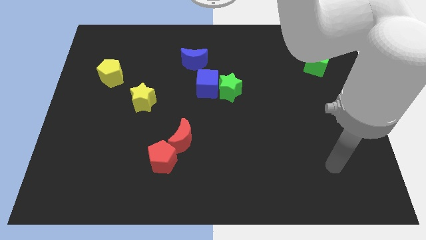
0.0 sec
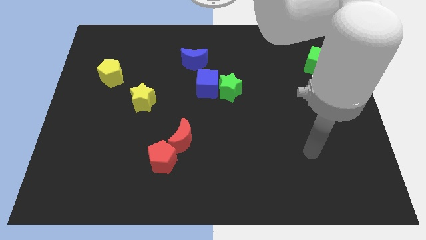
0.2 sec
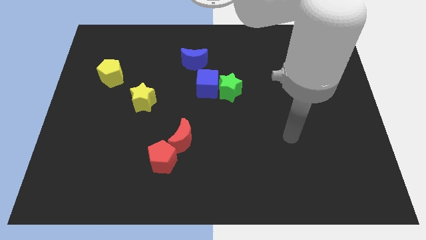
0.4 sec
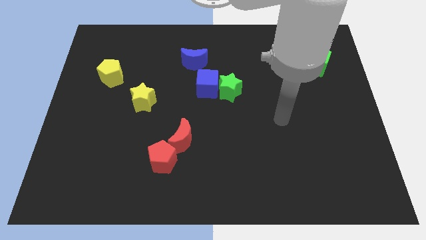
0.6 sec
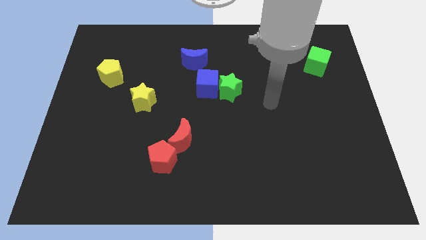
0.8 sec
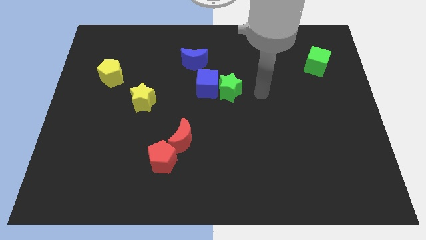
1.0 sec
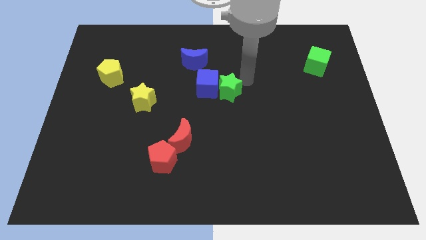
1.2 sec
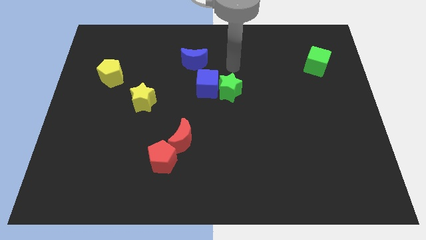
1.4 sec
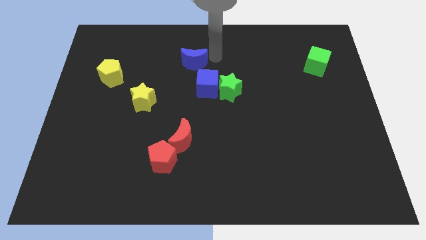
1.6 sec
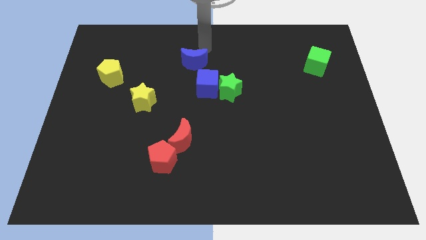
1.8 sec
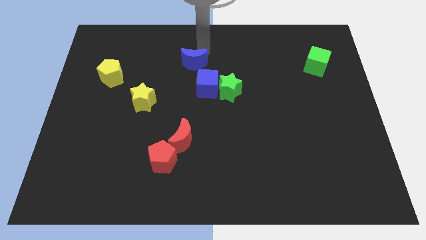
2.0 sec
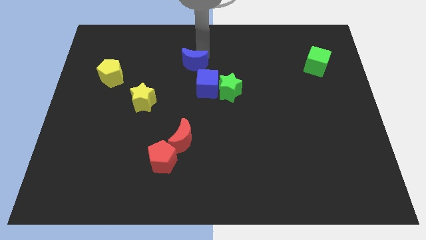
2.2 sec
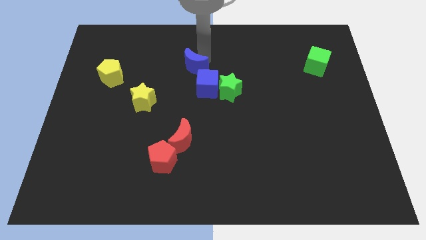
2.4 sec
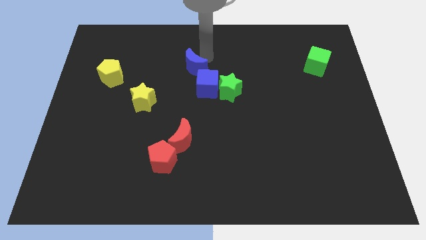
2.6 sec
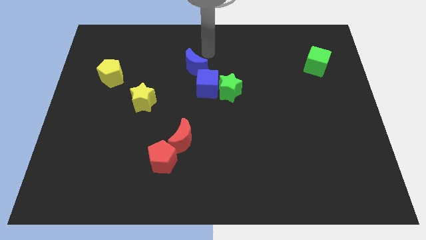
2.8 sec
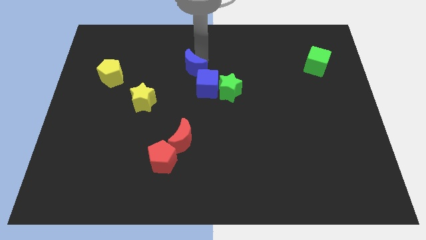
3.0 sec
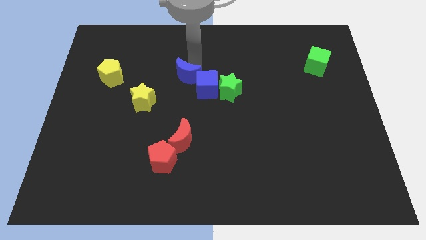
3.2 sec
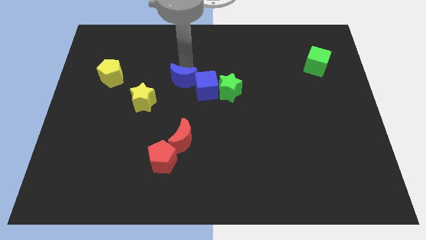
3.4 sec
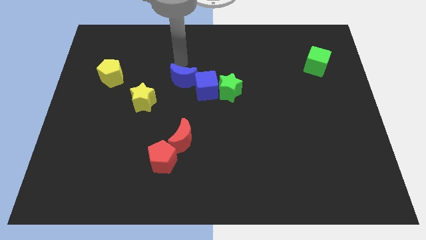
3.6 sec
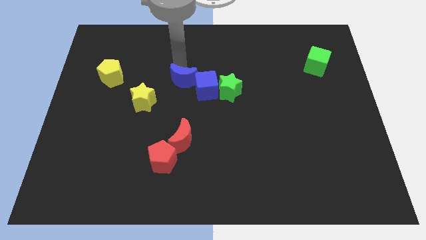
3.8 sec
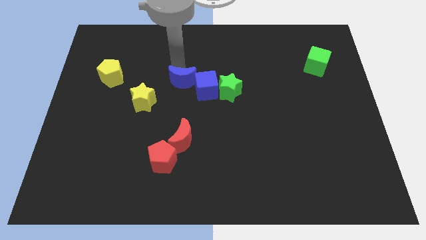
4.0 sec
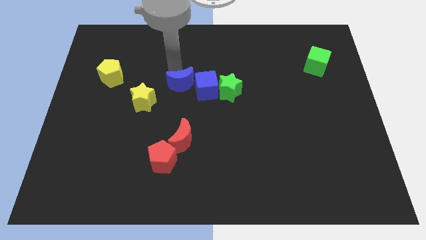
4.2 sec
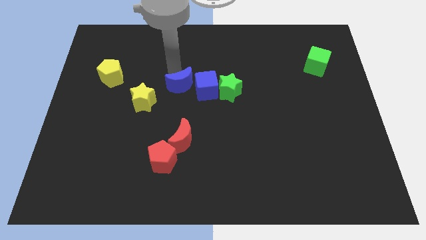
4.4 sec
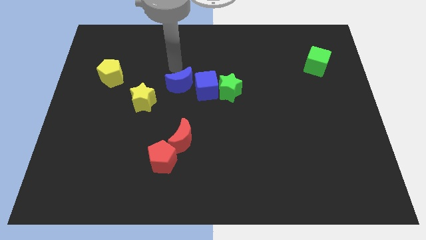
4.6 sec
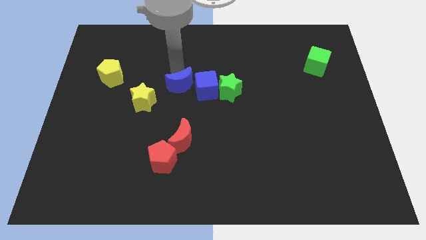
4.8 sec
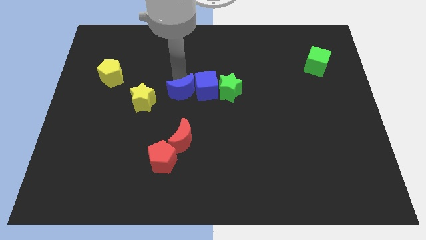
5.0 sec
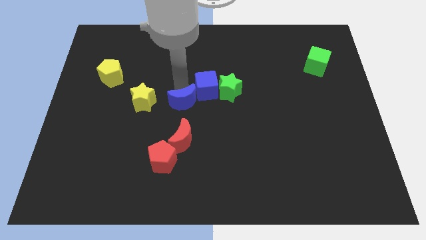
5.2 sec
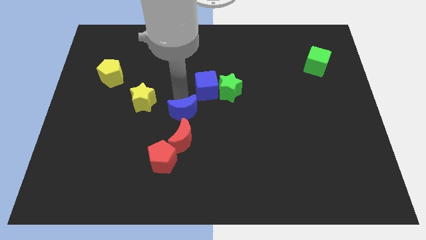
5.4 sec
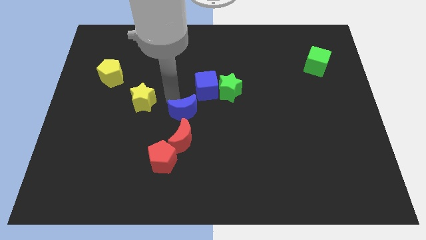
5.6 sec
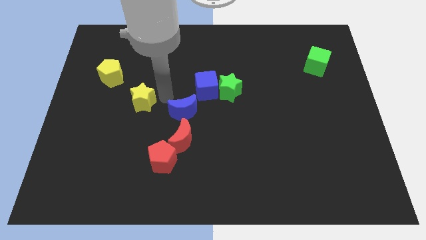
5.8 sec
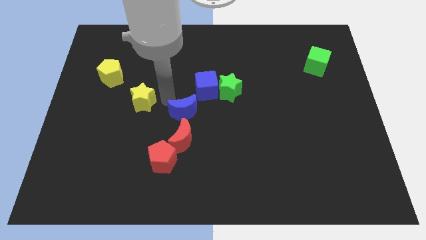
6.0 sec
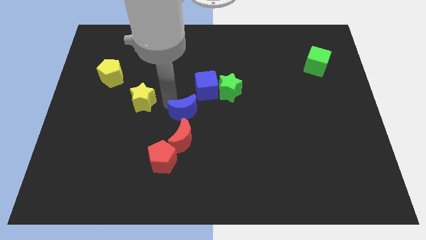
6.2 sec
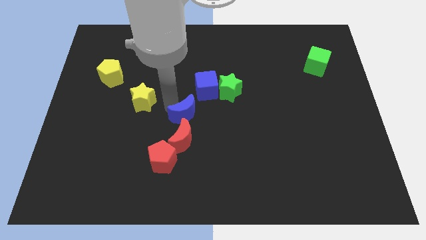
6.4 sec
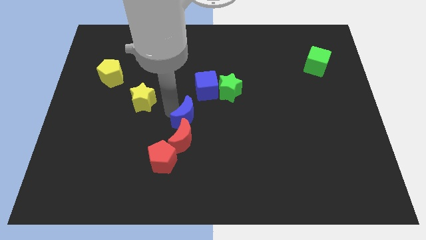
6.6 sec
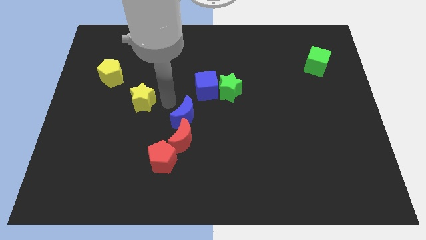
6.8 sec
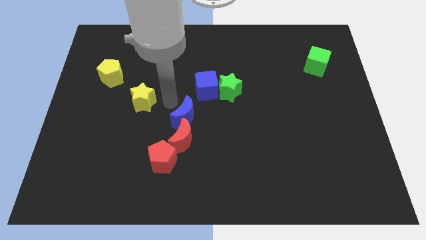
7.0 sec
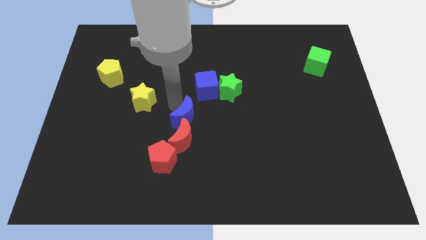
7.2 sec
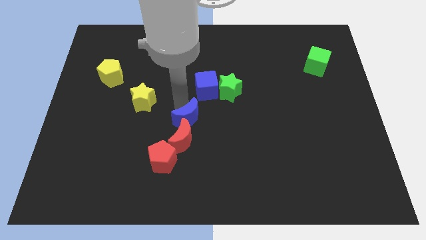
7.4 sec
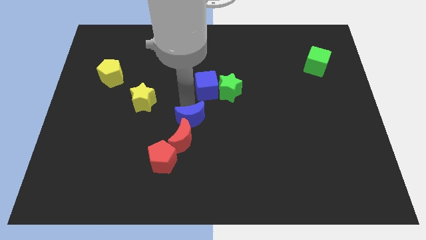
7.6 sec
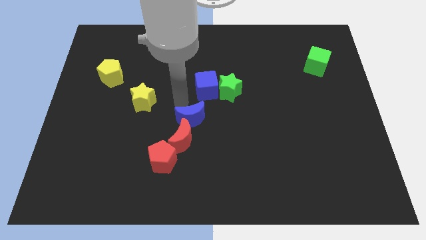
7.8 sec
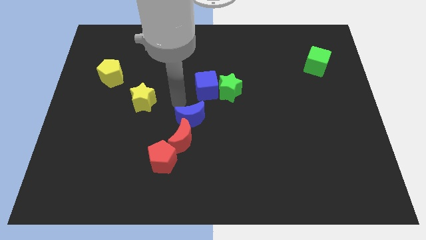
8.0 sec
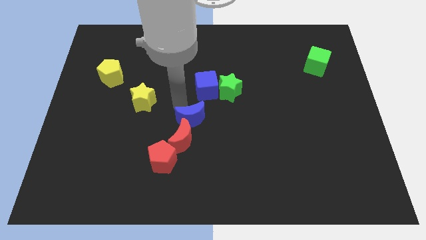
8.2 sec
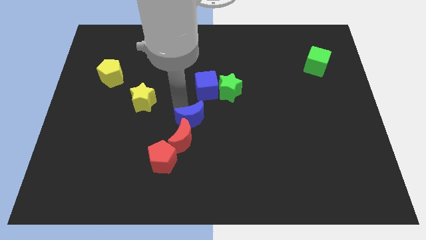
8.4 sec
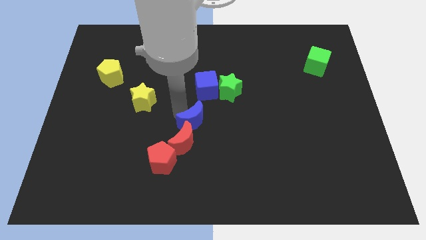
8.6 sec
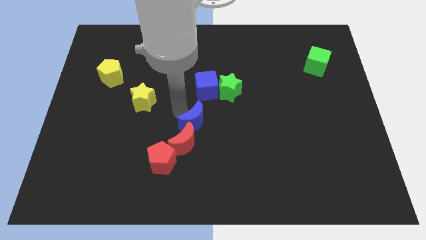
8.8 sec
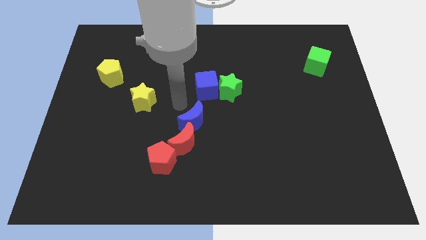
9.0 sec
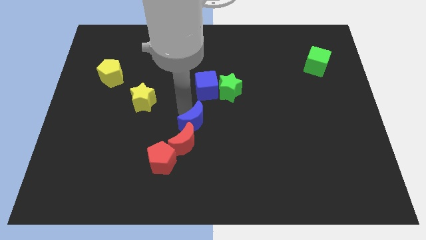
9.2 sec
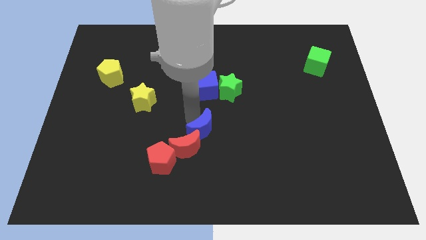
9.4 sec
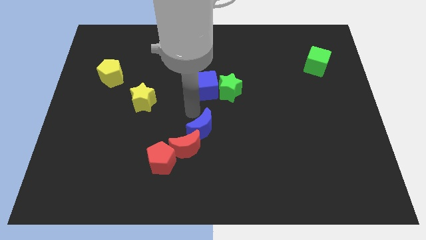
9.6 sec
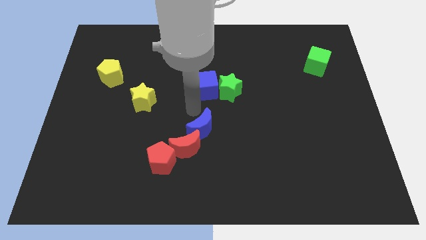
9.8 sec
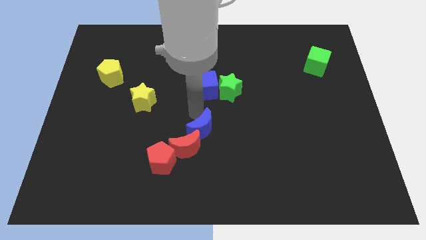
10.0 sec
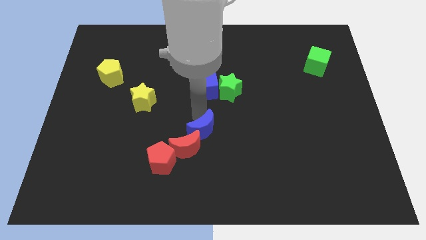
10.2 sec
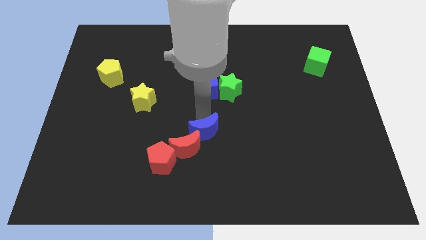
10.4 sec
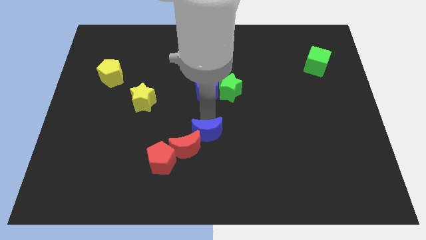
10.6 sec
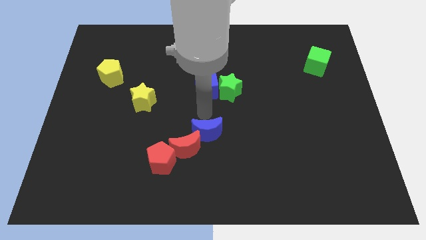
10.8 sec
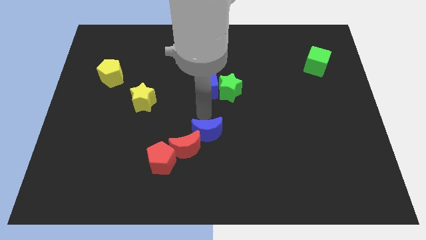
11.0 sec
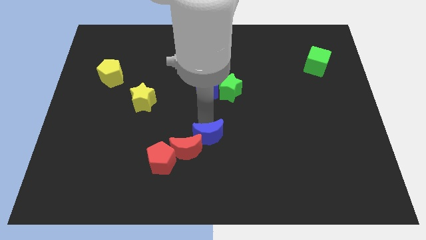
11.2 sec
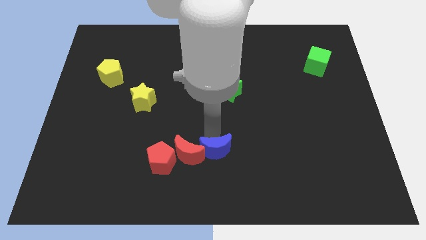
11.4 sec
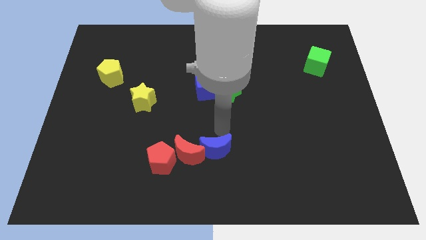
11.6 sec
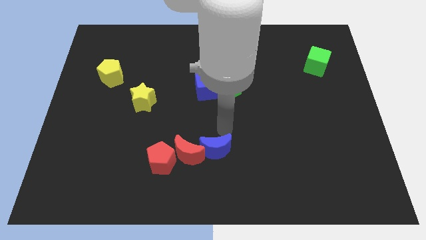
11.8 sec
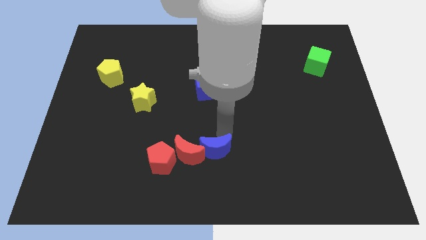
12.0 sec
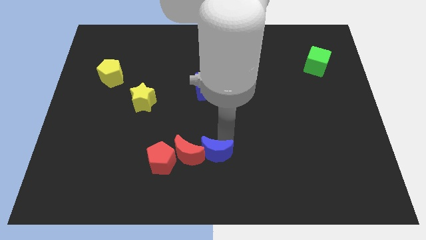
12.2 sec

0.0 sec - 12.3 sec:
push the blue moon to the bottom
